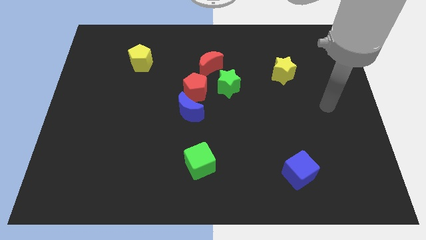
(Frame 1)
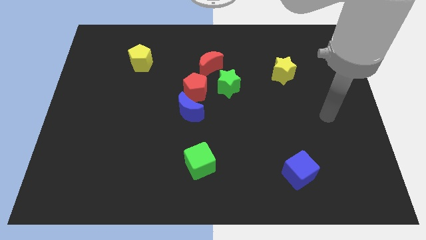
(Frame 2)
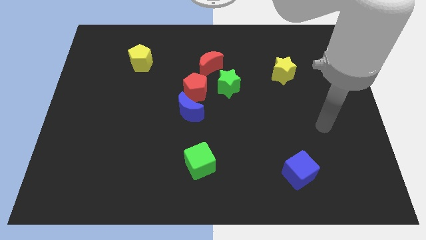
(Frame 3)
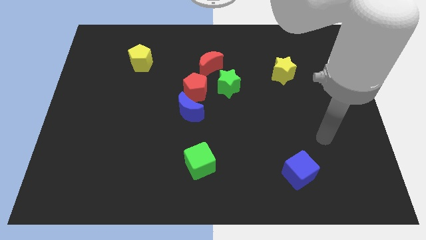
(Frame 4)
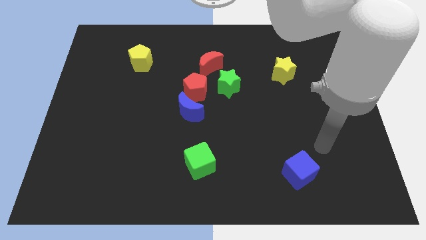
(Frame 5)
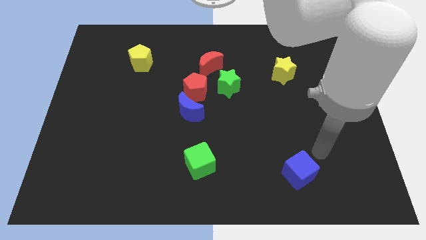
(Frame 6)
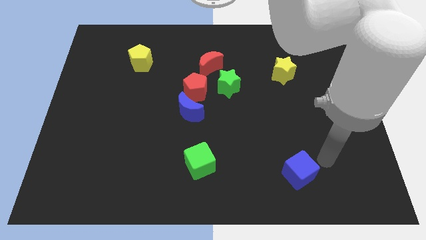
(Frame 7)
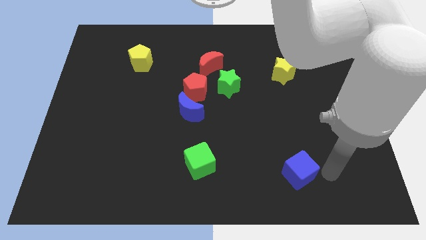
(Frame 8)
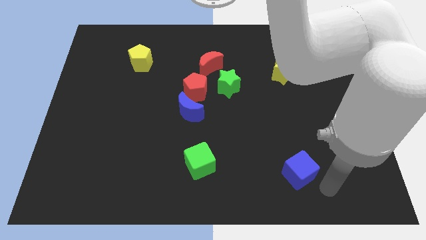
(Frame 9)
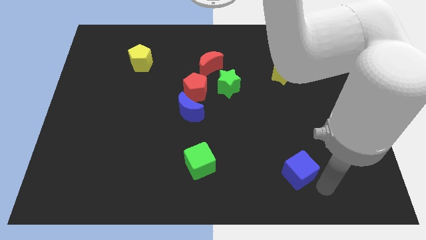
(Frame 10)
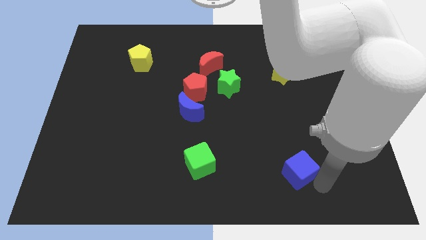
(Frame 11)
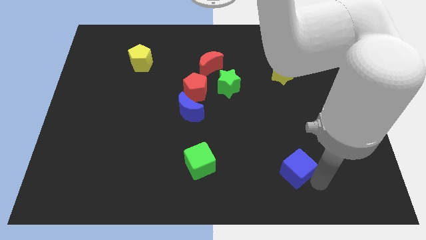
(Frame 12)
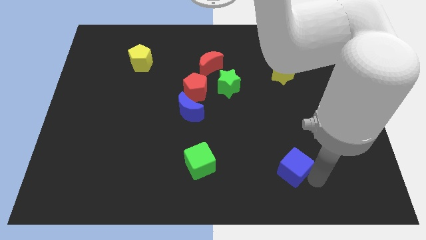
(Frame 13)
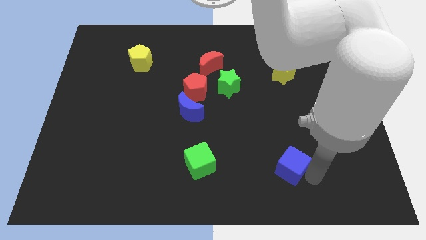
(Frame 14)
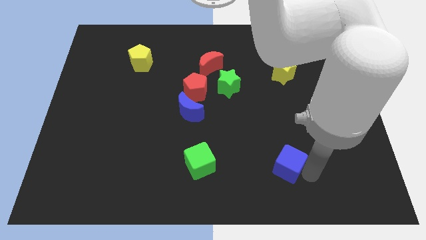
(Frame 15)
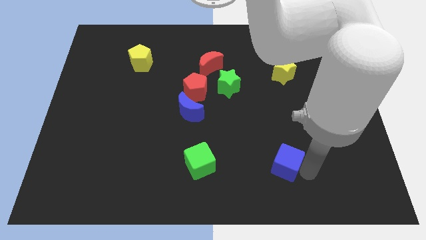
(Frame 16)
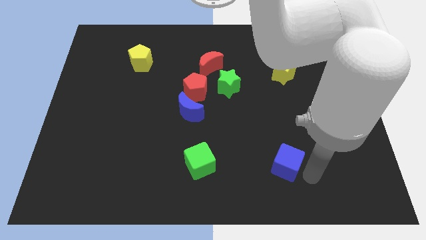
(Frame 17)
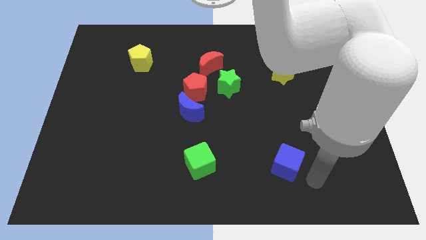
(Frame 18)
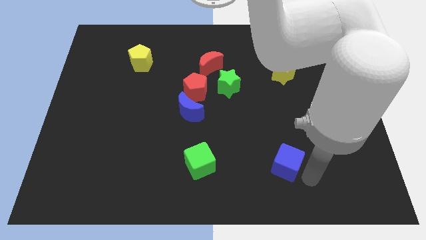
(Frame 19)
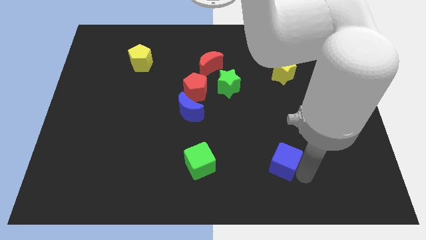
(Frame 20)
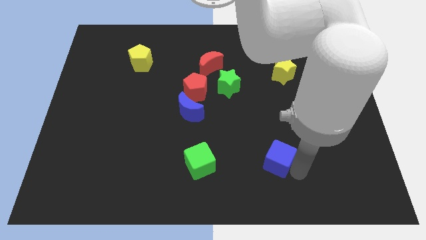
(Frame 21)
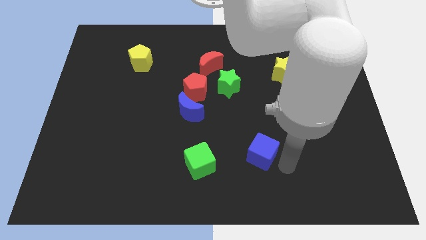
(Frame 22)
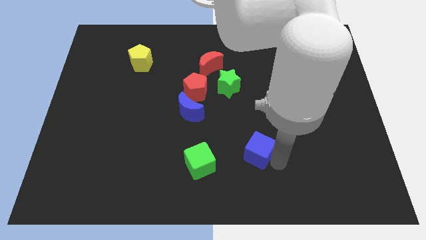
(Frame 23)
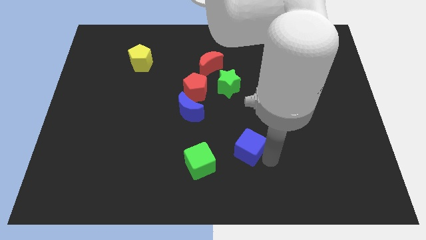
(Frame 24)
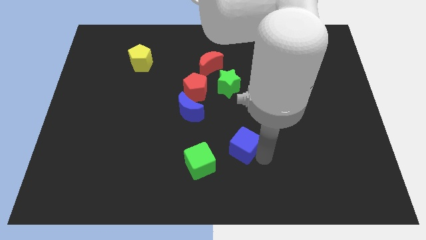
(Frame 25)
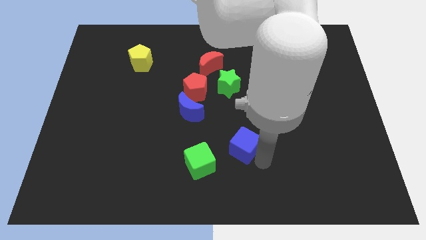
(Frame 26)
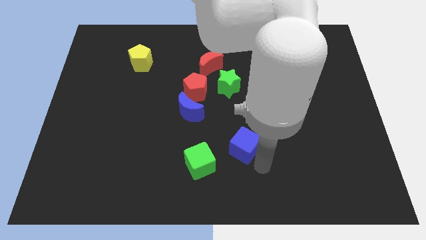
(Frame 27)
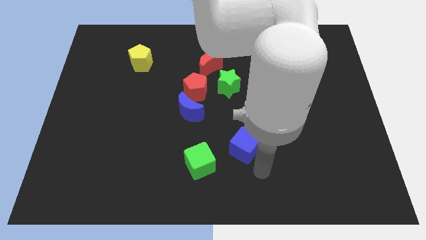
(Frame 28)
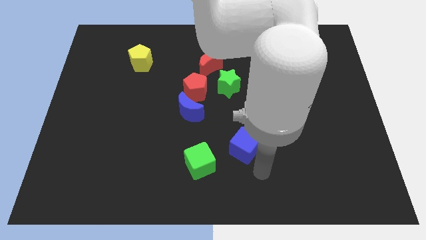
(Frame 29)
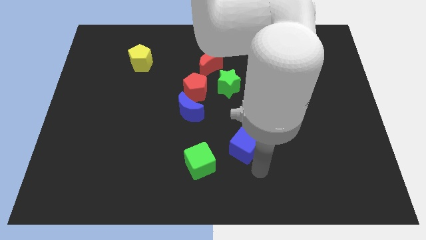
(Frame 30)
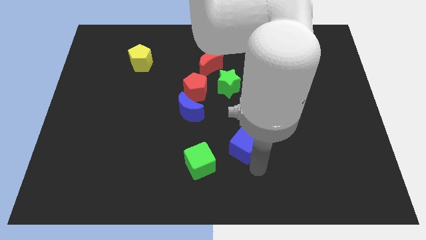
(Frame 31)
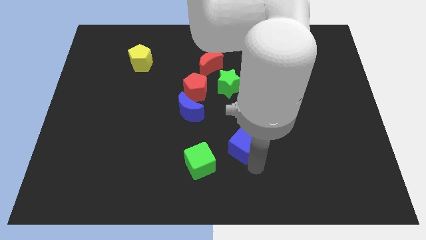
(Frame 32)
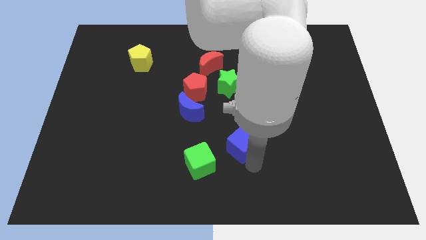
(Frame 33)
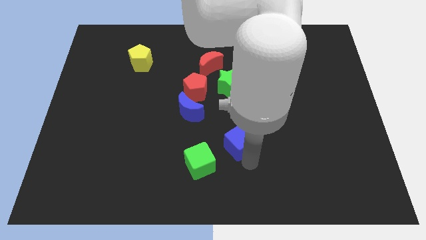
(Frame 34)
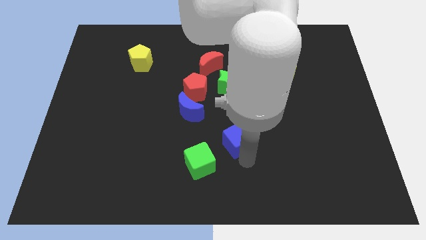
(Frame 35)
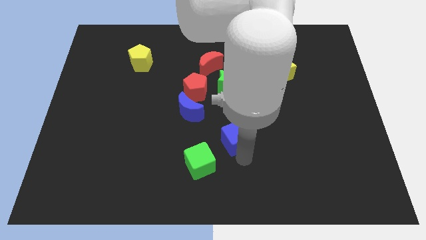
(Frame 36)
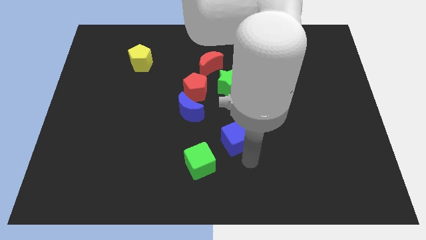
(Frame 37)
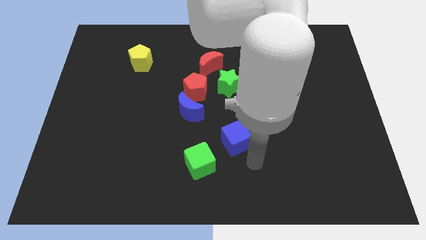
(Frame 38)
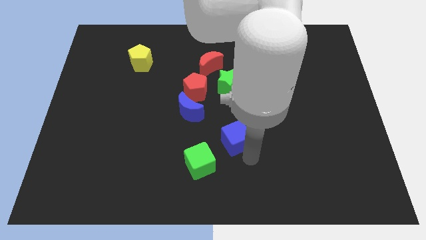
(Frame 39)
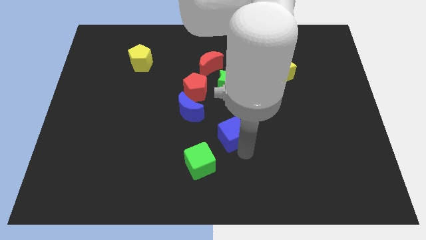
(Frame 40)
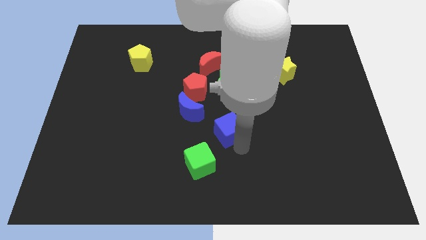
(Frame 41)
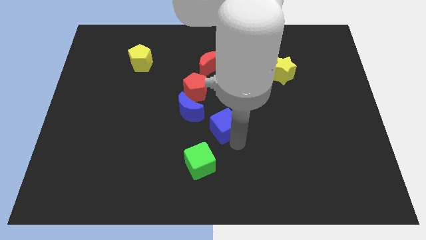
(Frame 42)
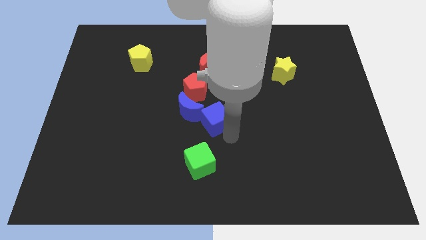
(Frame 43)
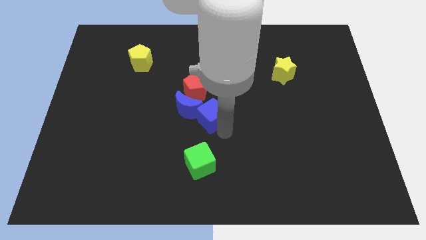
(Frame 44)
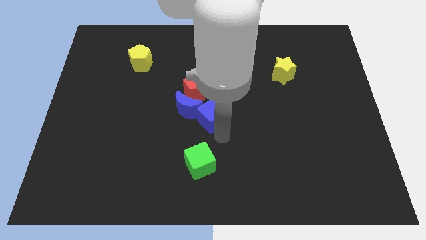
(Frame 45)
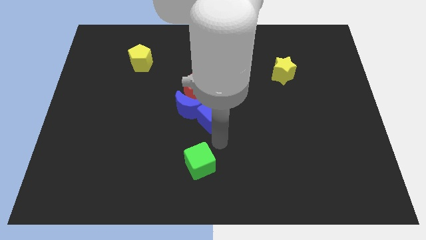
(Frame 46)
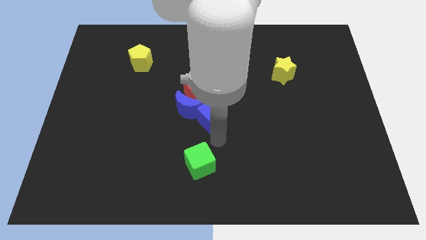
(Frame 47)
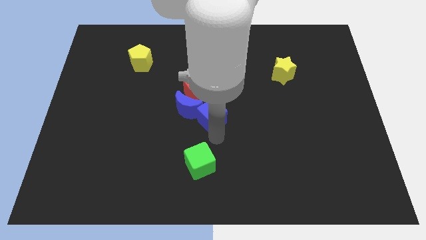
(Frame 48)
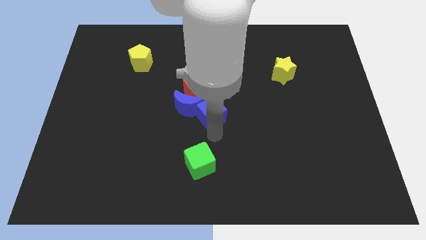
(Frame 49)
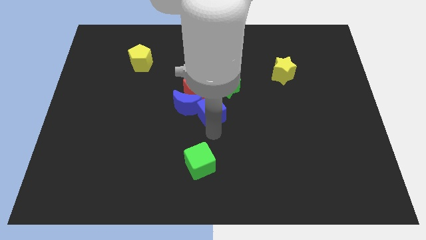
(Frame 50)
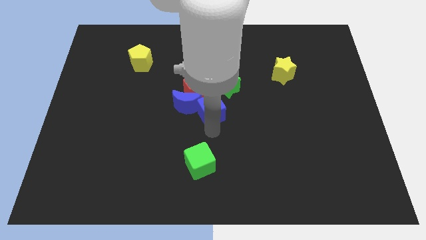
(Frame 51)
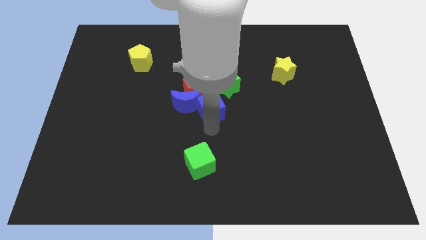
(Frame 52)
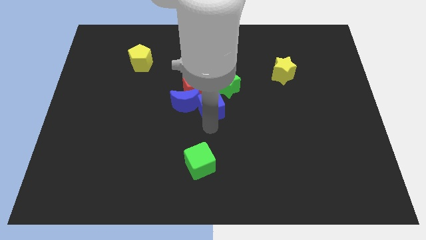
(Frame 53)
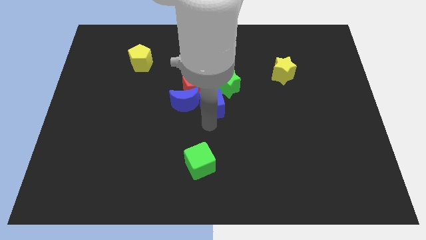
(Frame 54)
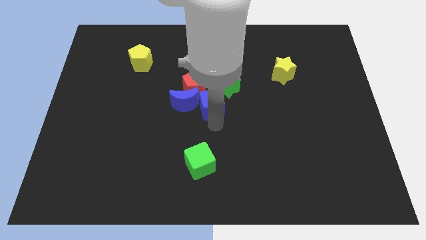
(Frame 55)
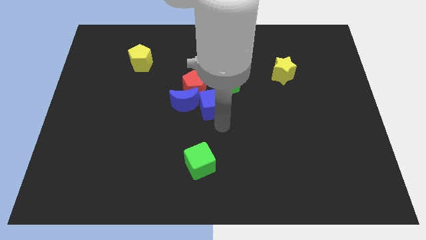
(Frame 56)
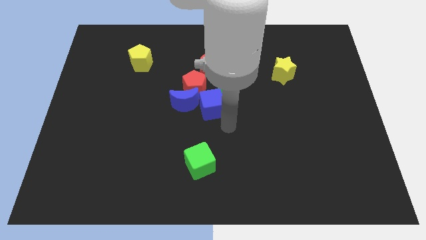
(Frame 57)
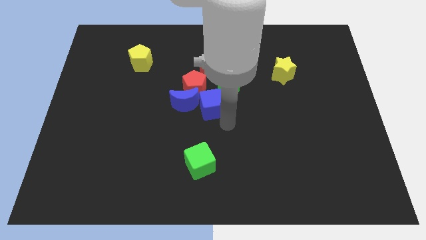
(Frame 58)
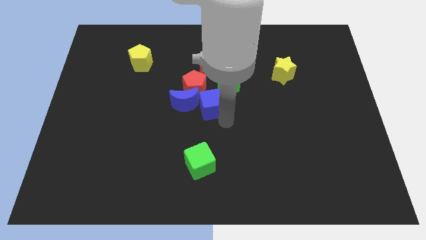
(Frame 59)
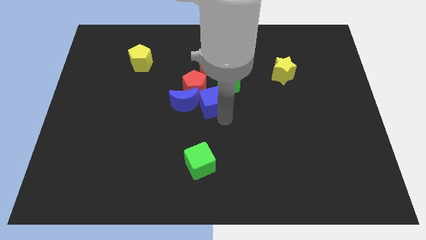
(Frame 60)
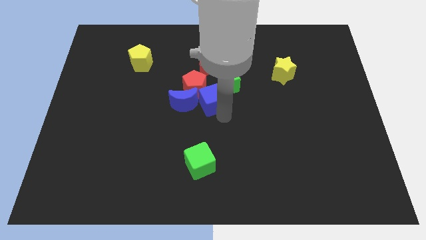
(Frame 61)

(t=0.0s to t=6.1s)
move the blue cube next to the red pentagon
